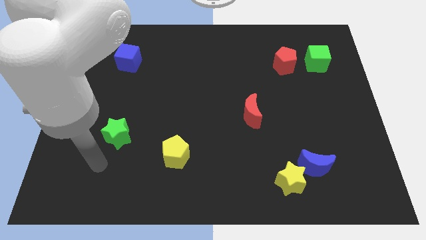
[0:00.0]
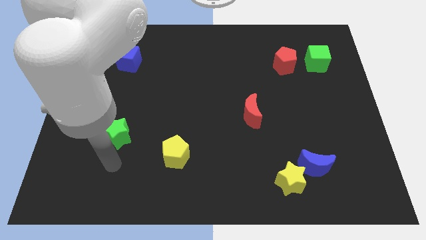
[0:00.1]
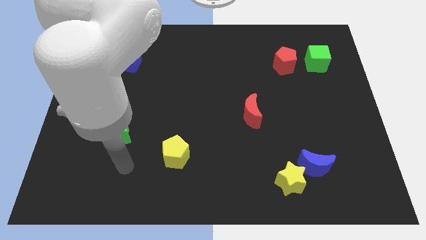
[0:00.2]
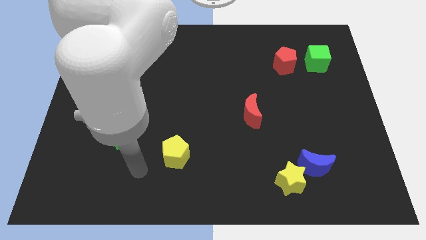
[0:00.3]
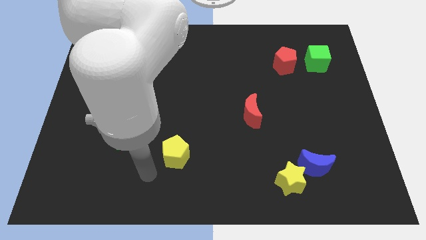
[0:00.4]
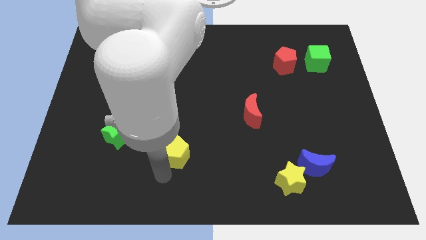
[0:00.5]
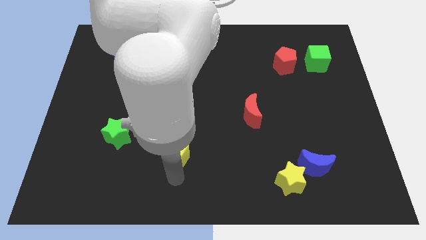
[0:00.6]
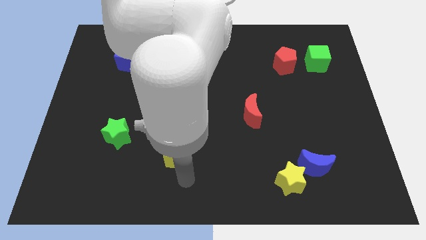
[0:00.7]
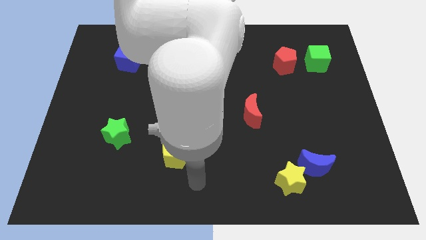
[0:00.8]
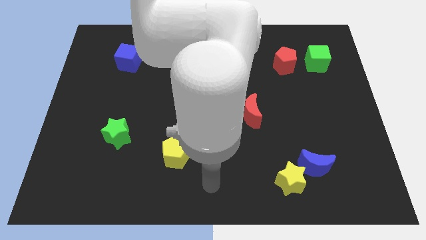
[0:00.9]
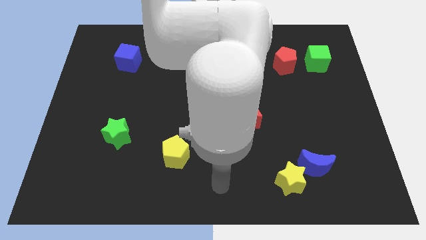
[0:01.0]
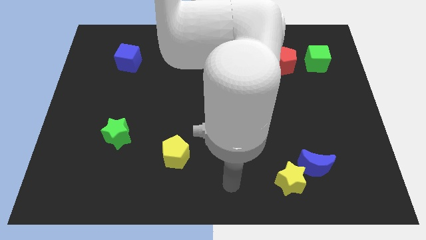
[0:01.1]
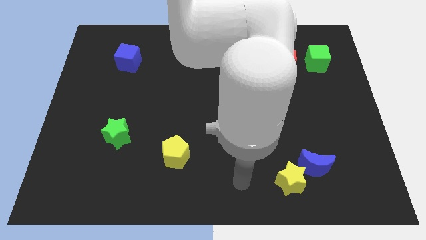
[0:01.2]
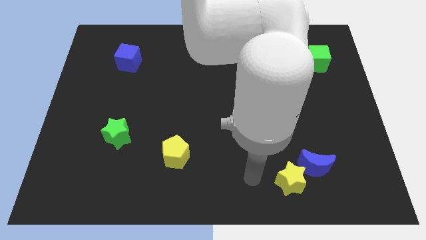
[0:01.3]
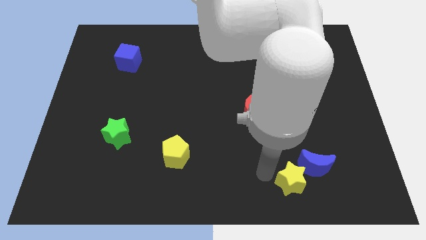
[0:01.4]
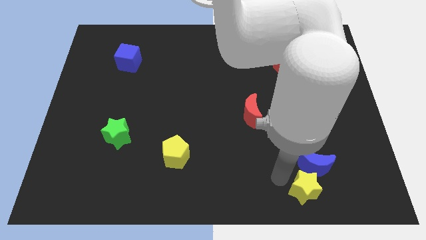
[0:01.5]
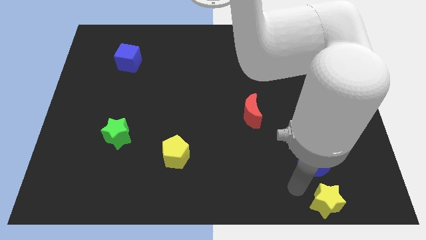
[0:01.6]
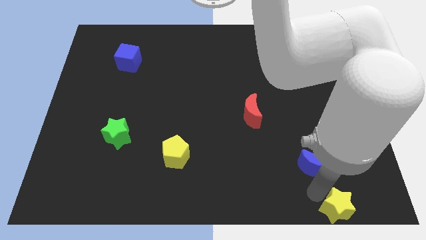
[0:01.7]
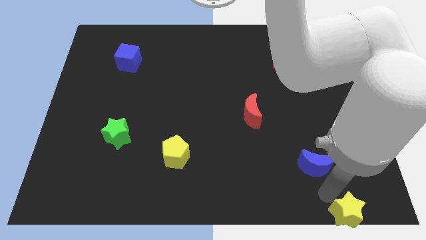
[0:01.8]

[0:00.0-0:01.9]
move the blue moon away from the yellow star

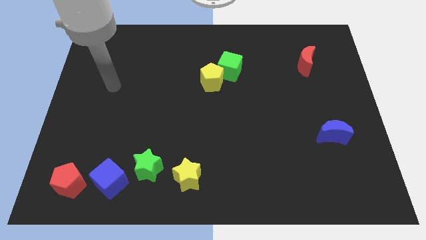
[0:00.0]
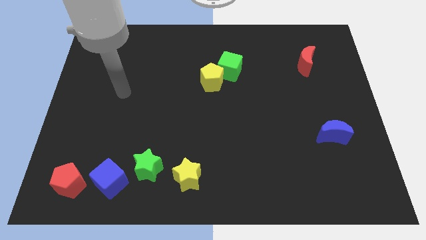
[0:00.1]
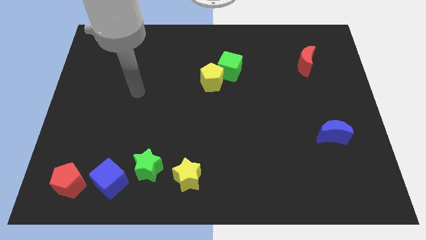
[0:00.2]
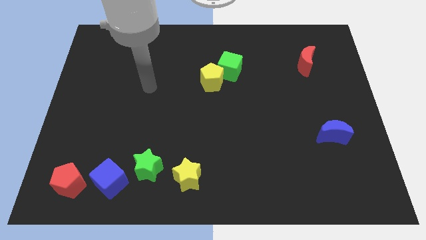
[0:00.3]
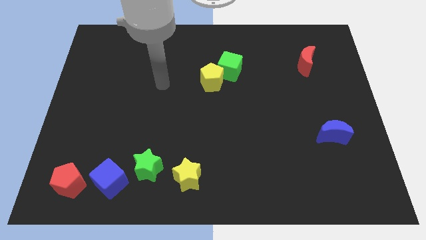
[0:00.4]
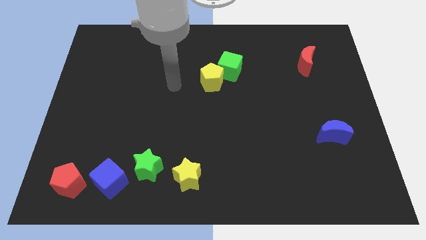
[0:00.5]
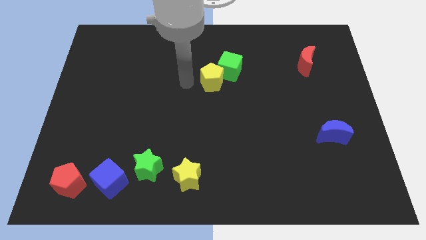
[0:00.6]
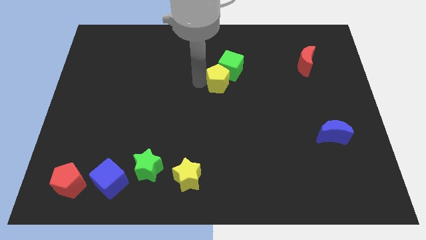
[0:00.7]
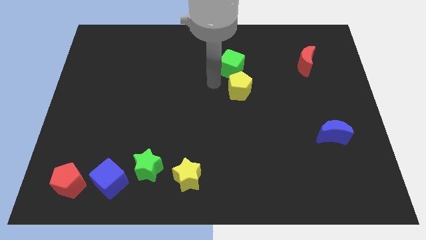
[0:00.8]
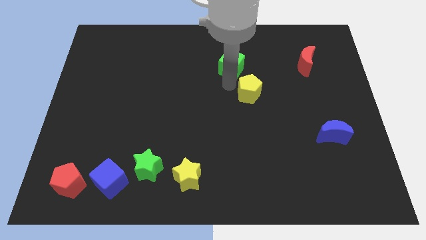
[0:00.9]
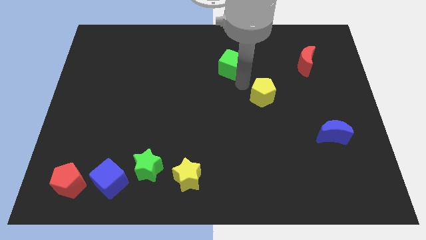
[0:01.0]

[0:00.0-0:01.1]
move the green cube away from the yellow pentagon

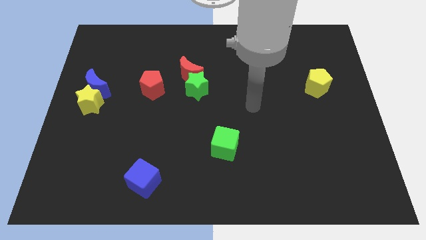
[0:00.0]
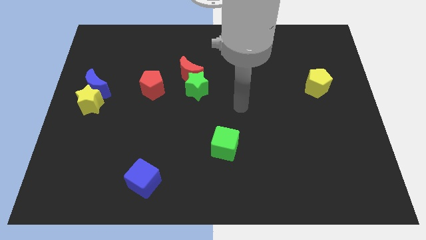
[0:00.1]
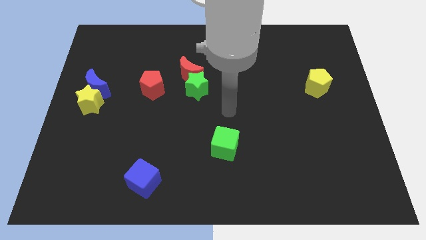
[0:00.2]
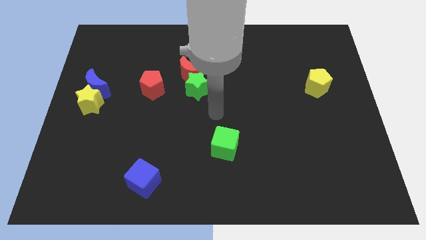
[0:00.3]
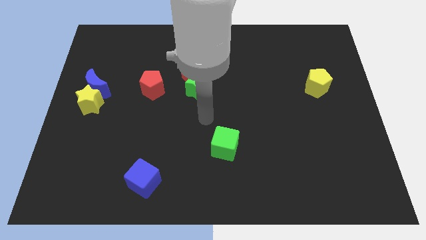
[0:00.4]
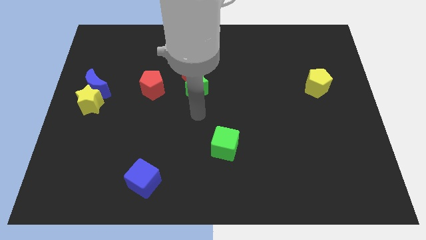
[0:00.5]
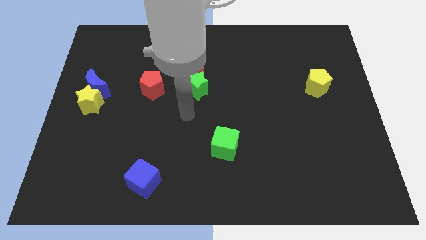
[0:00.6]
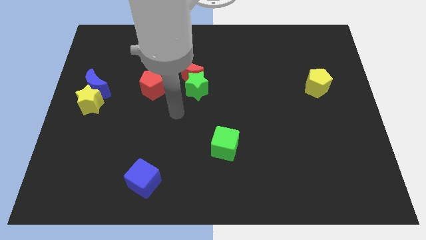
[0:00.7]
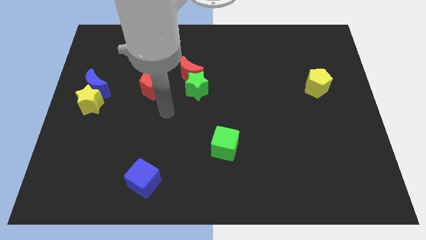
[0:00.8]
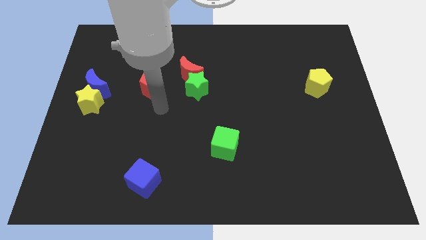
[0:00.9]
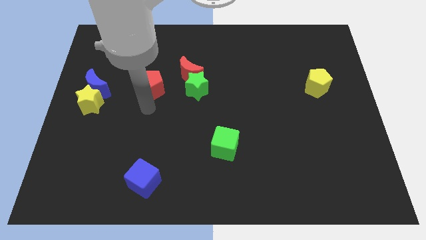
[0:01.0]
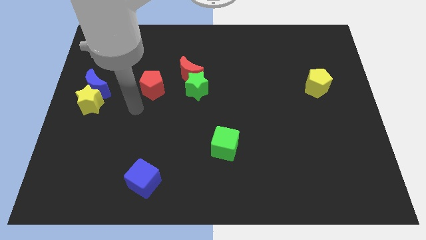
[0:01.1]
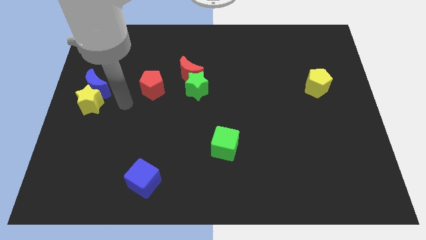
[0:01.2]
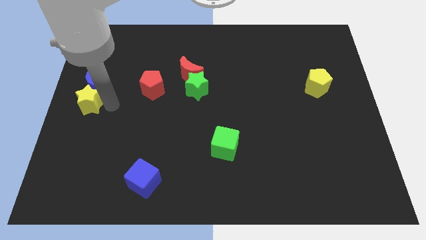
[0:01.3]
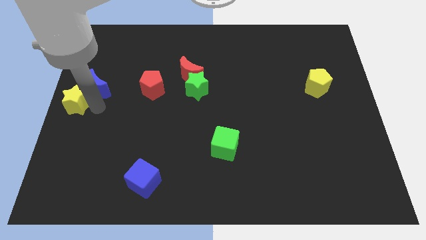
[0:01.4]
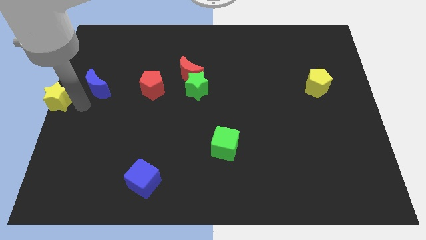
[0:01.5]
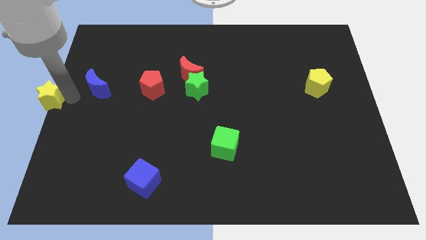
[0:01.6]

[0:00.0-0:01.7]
pull the blue moon apart from the yellow star

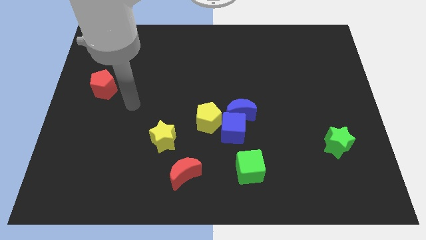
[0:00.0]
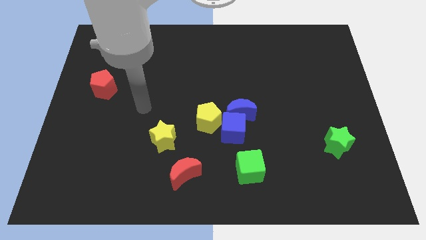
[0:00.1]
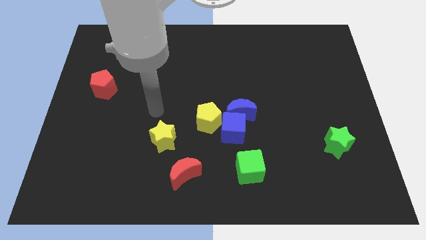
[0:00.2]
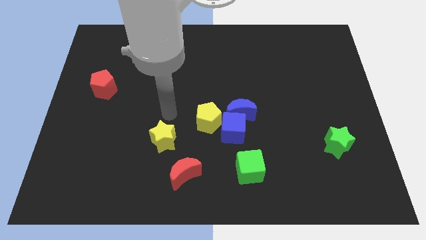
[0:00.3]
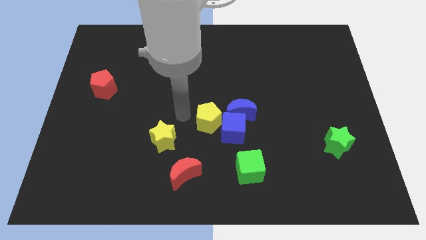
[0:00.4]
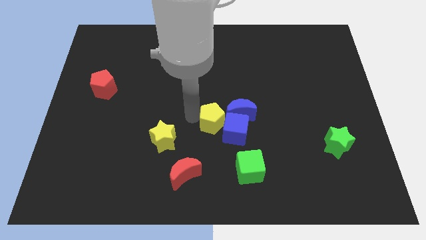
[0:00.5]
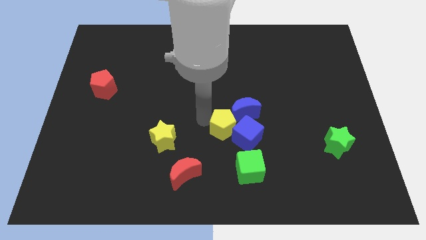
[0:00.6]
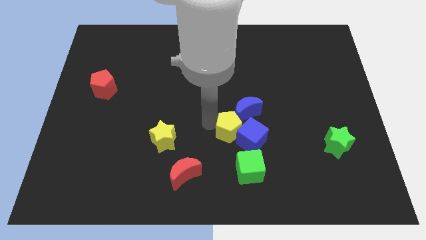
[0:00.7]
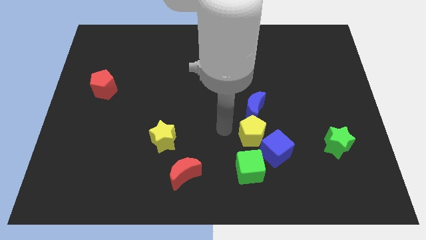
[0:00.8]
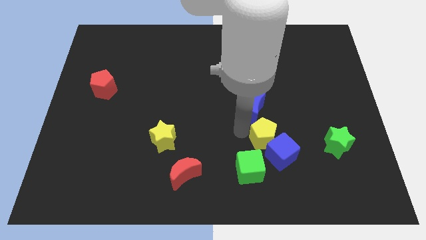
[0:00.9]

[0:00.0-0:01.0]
move the blue moon away from the blue cube and yellow pentagon

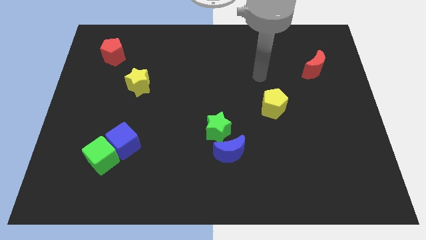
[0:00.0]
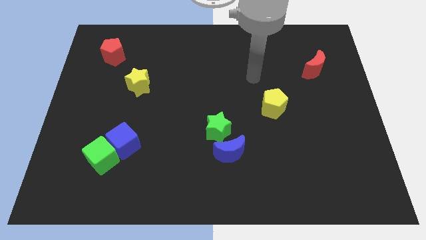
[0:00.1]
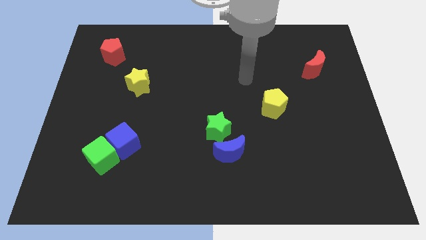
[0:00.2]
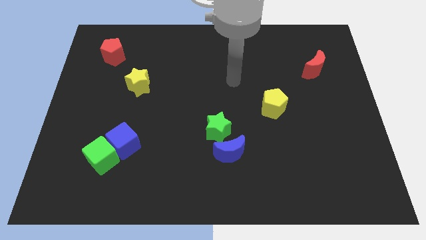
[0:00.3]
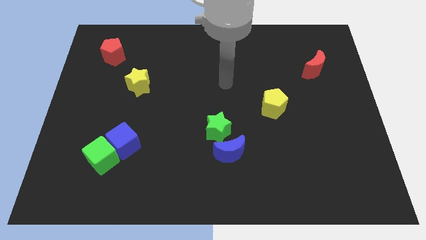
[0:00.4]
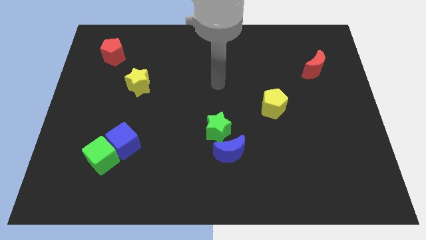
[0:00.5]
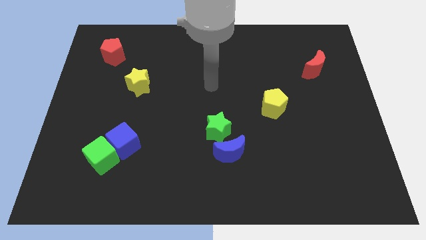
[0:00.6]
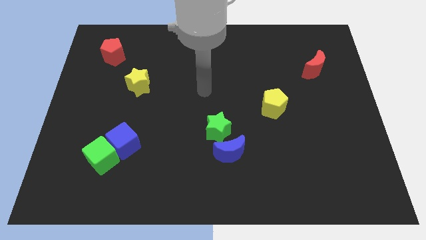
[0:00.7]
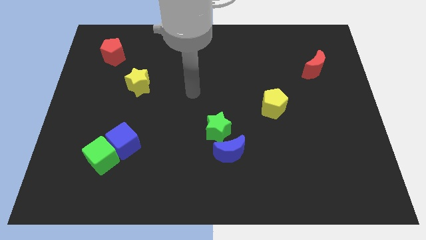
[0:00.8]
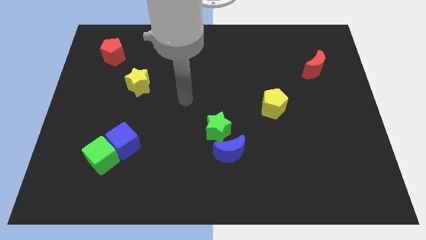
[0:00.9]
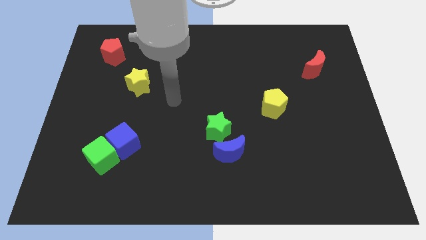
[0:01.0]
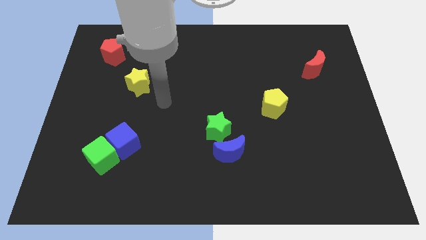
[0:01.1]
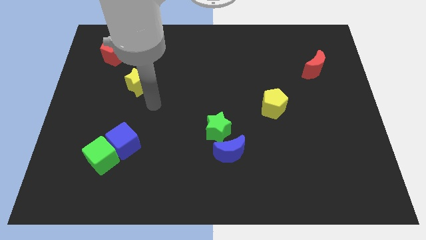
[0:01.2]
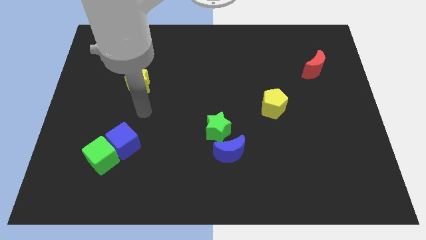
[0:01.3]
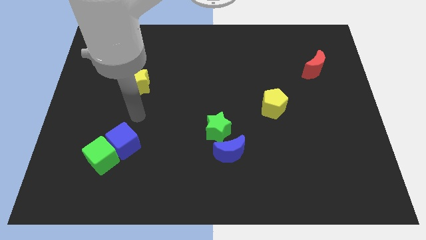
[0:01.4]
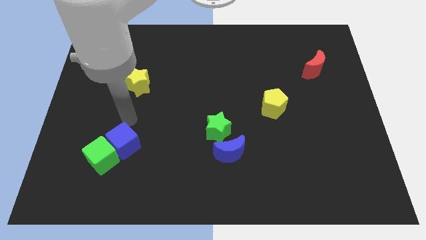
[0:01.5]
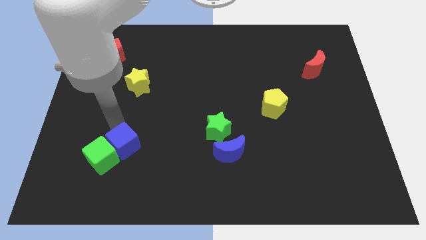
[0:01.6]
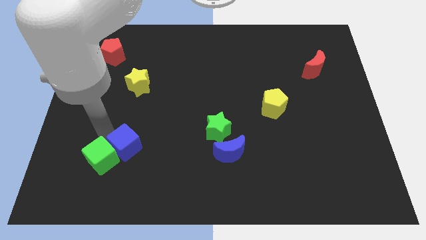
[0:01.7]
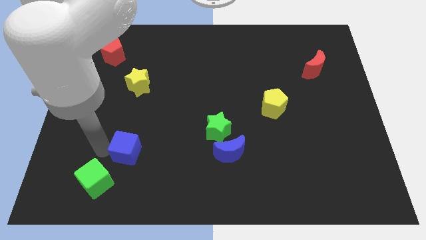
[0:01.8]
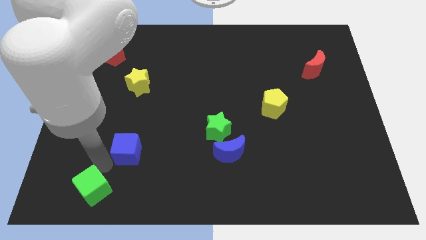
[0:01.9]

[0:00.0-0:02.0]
pull the blue cube apart from the green cube

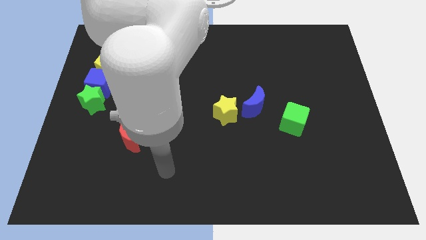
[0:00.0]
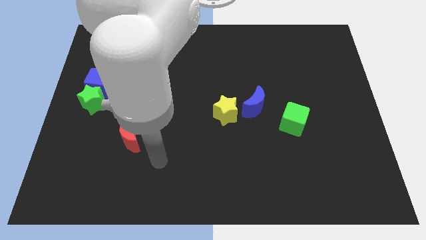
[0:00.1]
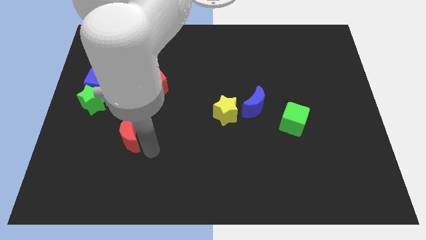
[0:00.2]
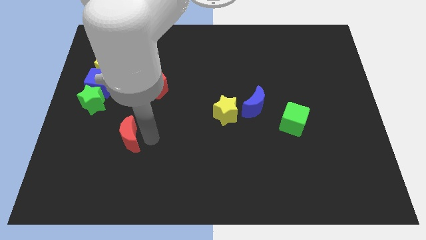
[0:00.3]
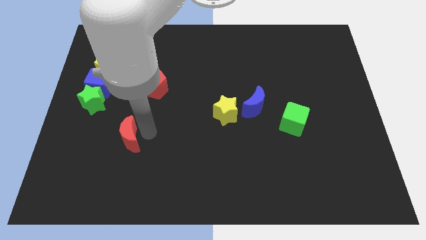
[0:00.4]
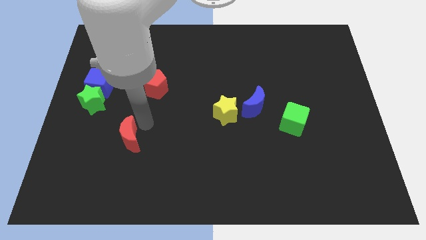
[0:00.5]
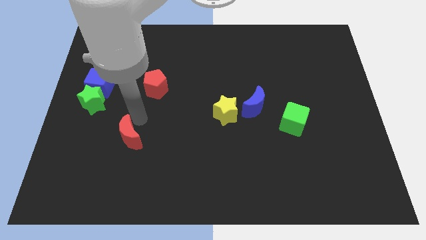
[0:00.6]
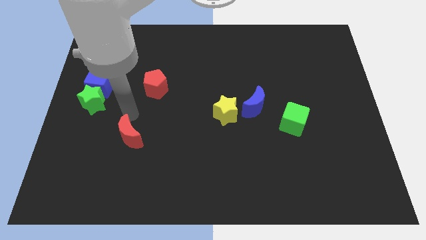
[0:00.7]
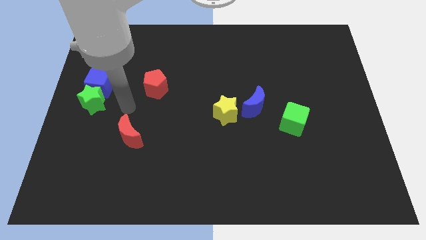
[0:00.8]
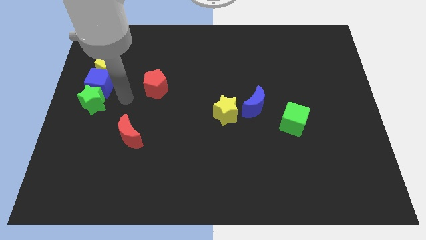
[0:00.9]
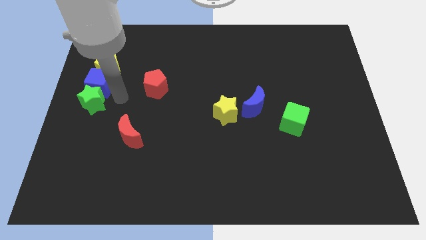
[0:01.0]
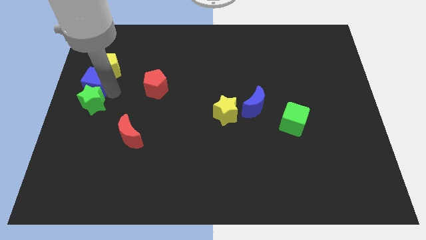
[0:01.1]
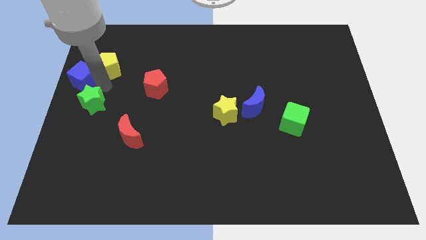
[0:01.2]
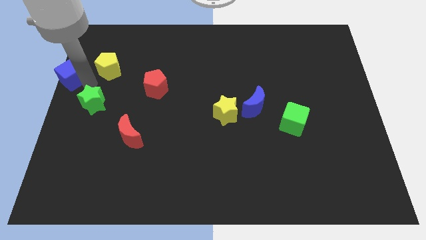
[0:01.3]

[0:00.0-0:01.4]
move the green star away from the blue cube
